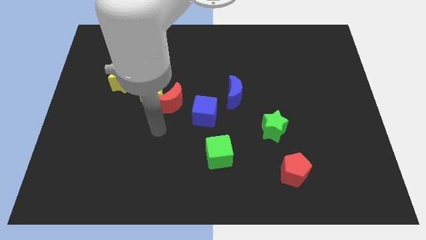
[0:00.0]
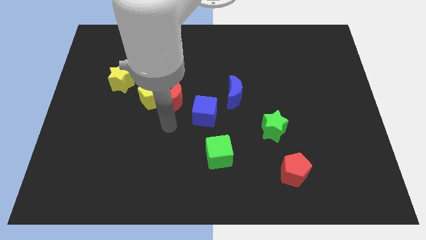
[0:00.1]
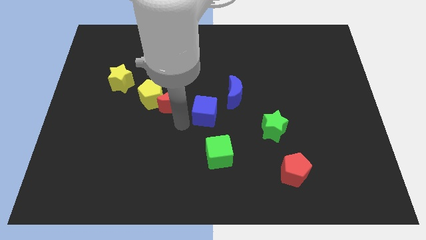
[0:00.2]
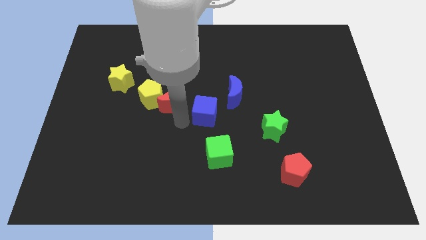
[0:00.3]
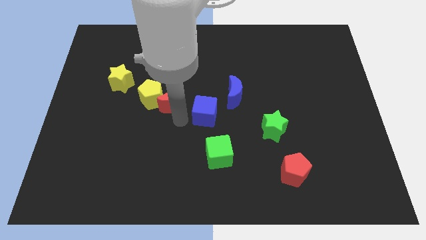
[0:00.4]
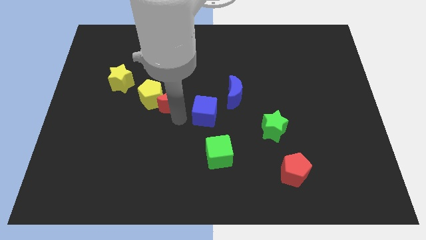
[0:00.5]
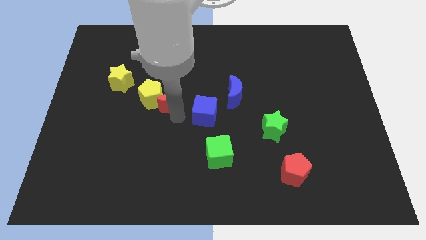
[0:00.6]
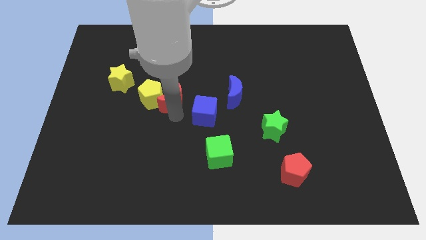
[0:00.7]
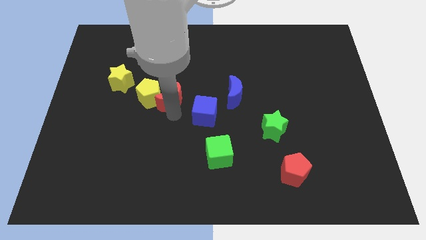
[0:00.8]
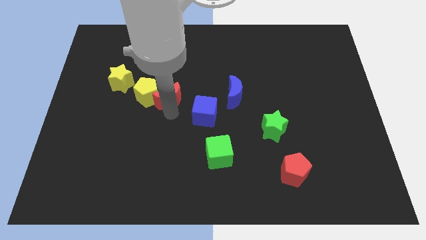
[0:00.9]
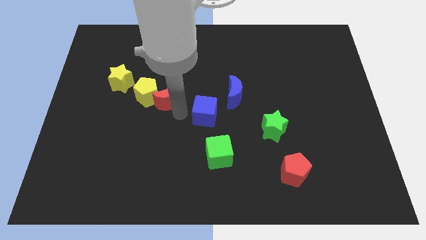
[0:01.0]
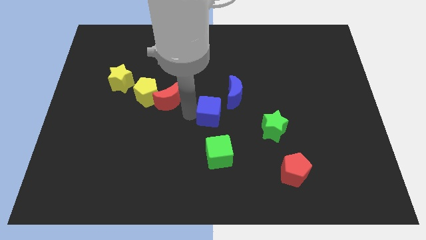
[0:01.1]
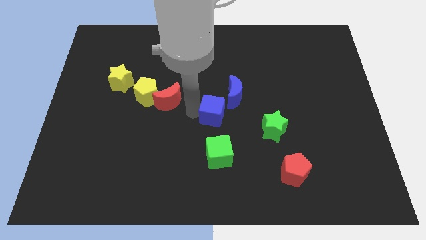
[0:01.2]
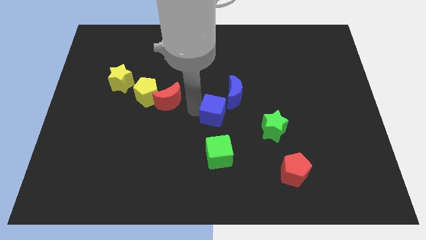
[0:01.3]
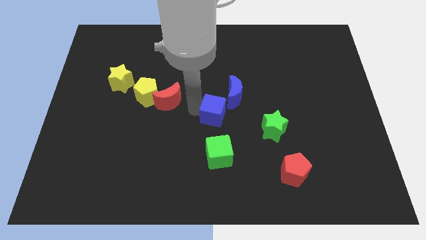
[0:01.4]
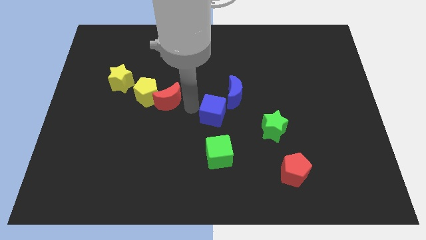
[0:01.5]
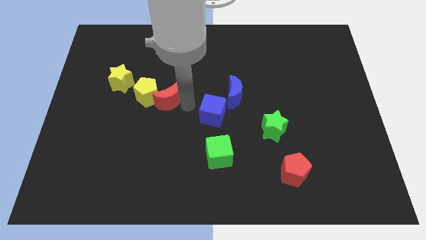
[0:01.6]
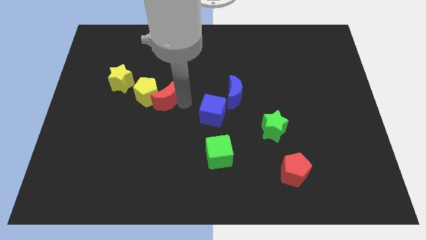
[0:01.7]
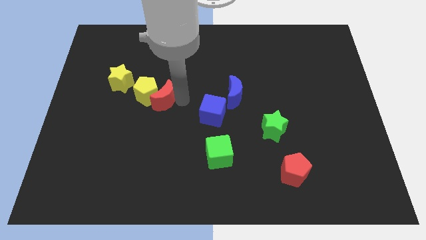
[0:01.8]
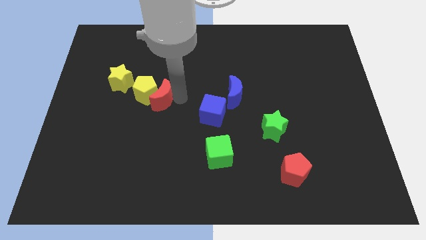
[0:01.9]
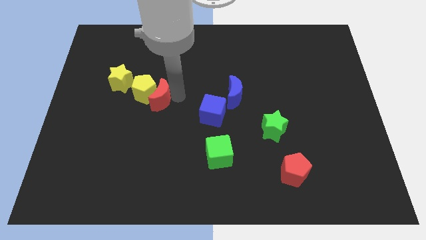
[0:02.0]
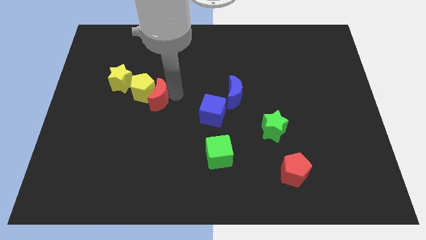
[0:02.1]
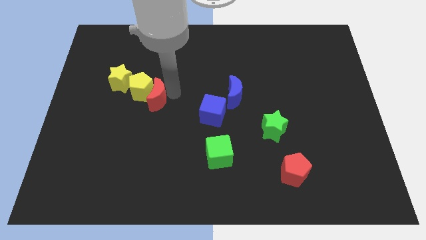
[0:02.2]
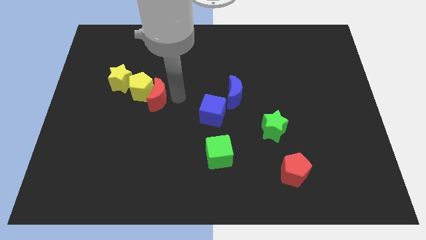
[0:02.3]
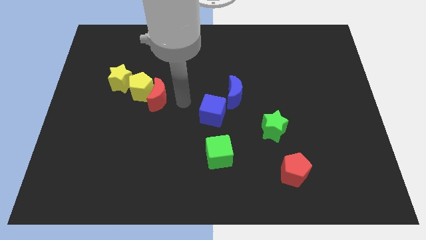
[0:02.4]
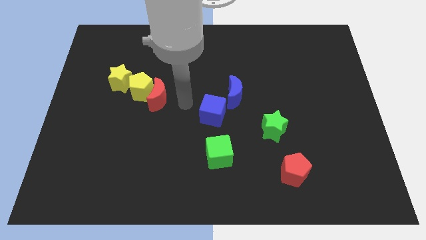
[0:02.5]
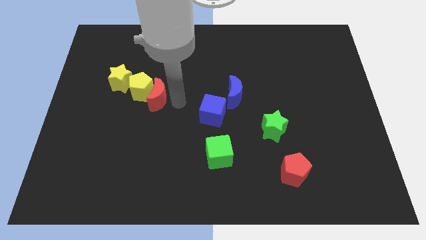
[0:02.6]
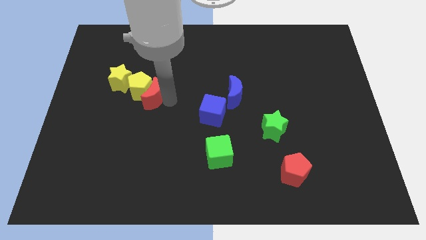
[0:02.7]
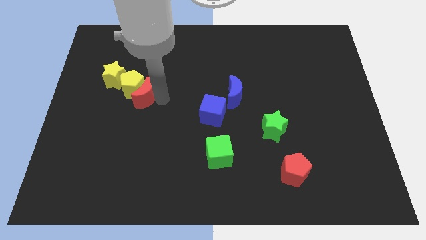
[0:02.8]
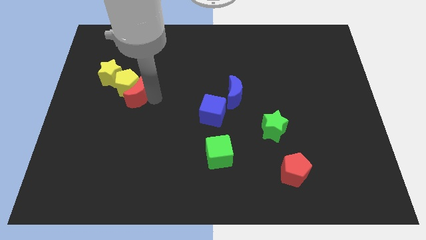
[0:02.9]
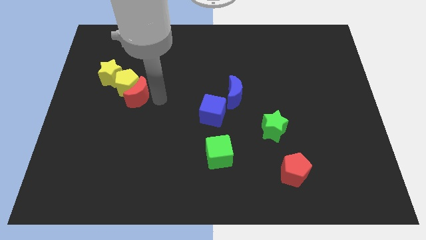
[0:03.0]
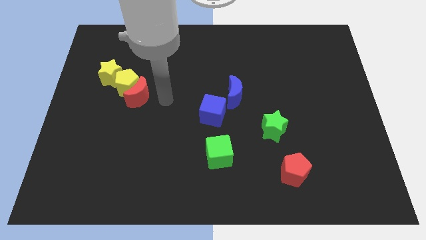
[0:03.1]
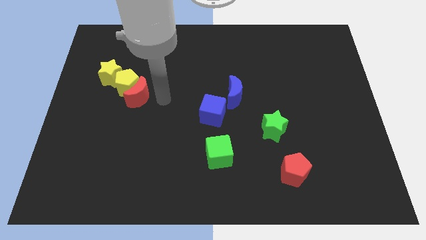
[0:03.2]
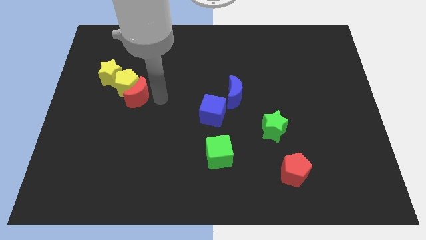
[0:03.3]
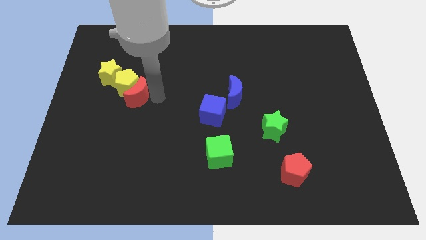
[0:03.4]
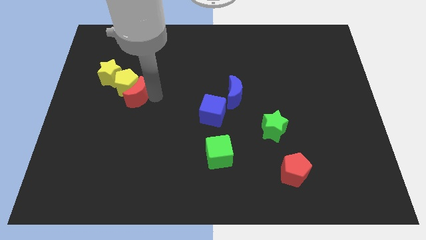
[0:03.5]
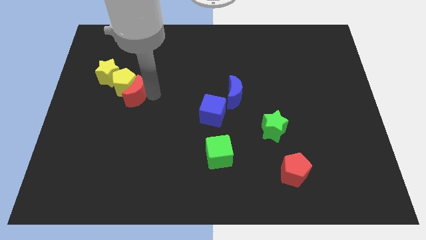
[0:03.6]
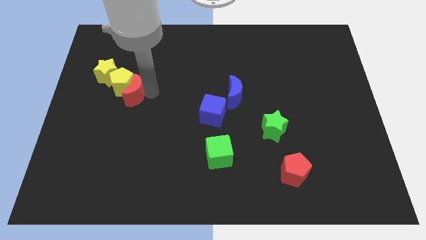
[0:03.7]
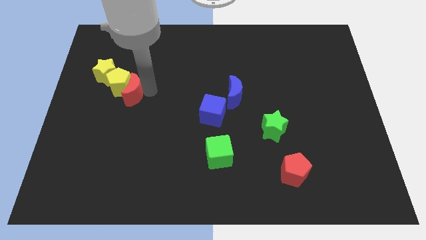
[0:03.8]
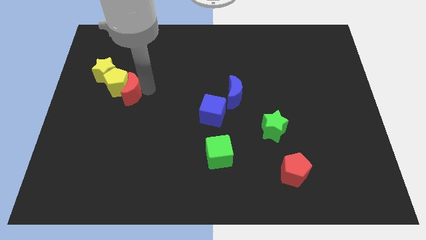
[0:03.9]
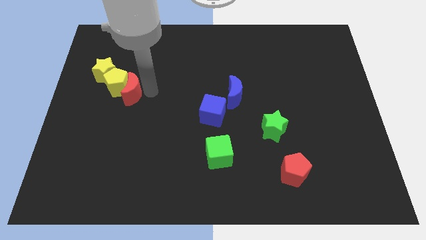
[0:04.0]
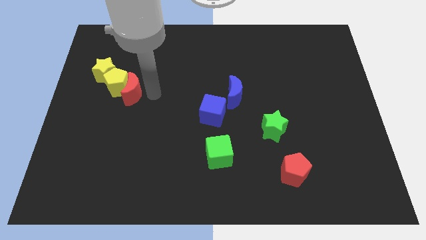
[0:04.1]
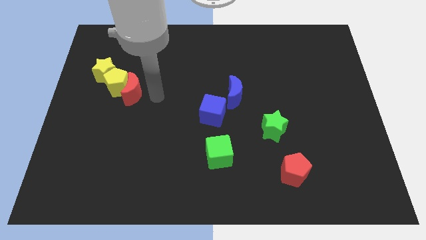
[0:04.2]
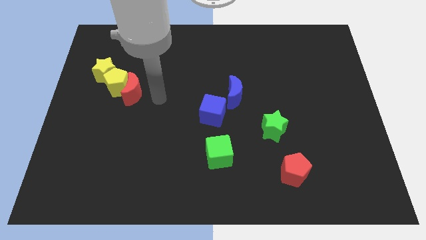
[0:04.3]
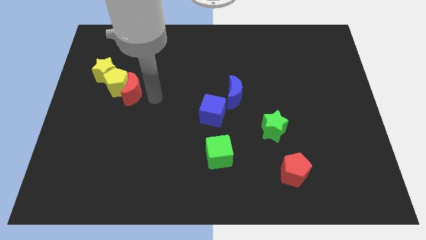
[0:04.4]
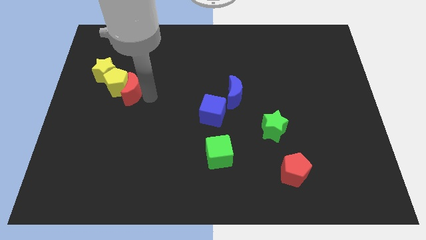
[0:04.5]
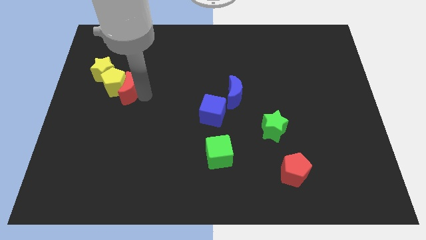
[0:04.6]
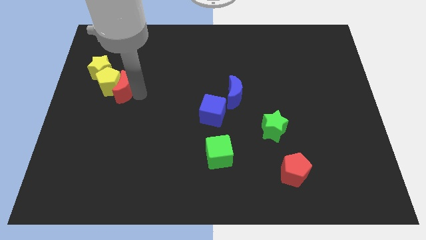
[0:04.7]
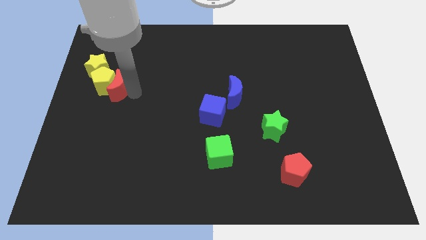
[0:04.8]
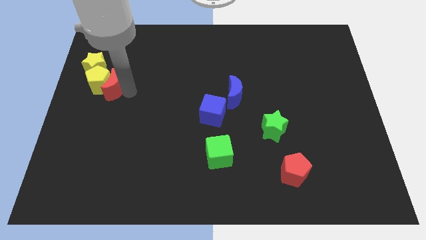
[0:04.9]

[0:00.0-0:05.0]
move the red moon away from the yellow pentagon and blue cube

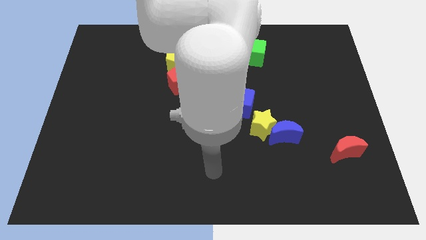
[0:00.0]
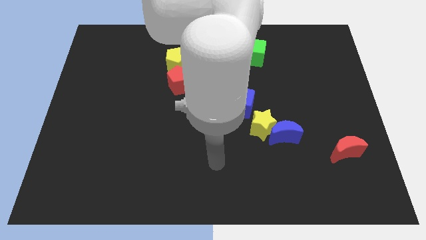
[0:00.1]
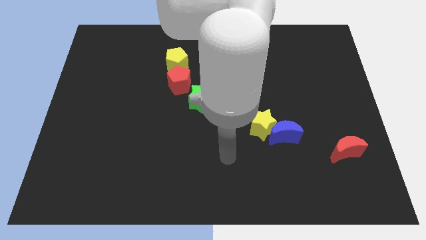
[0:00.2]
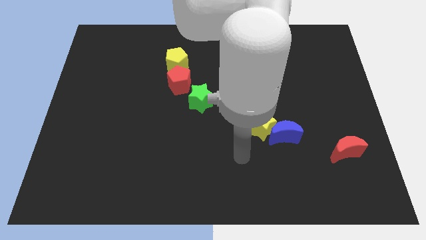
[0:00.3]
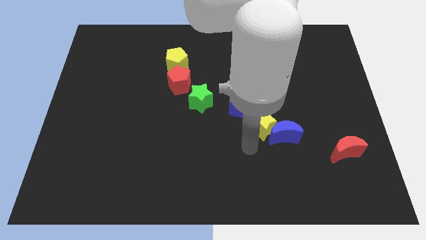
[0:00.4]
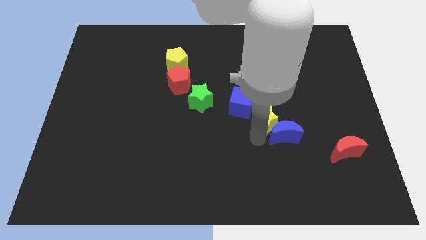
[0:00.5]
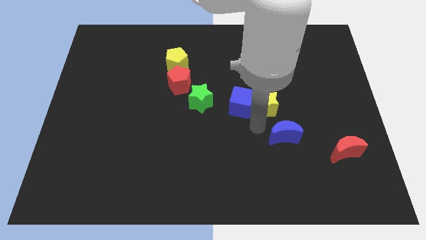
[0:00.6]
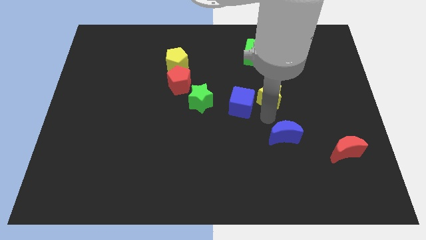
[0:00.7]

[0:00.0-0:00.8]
pull the blue moon apart from the yellow star

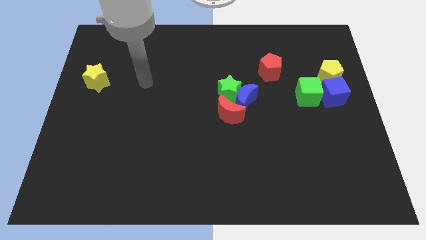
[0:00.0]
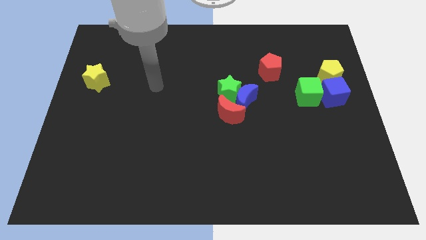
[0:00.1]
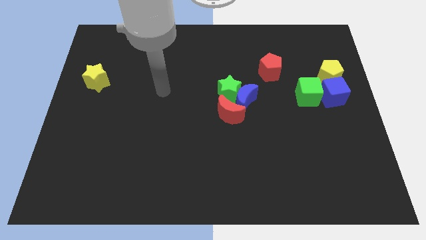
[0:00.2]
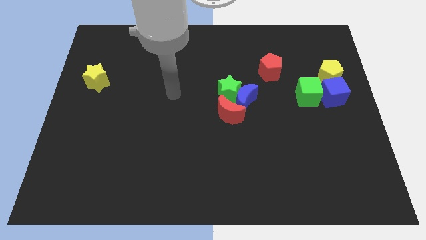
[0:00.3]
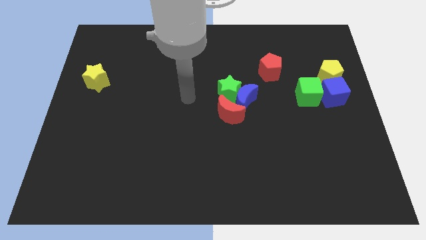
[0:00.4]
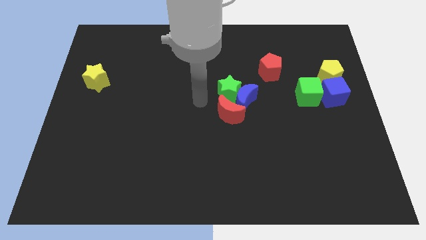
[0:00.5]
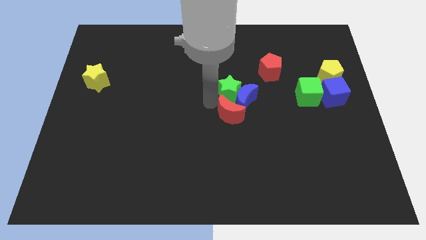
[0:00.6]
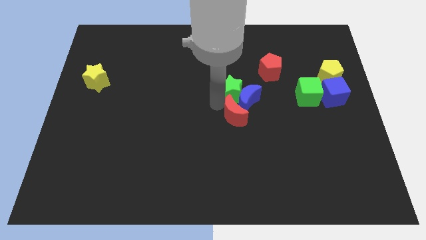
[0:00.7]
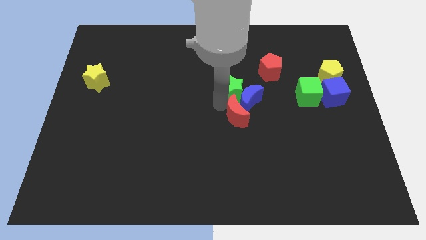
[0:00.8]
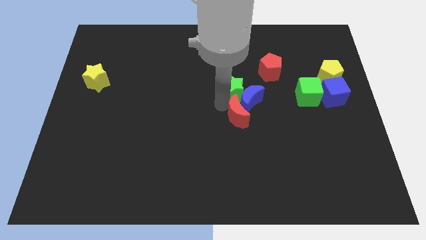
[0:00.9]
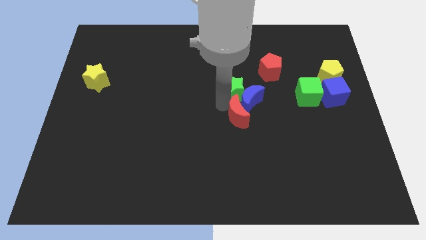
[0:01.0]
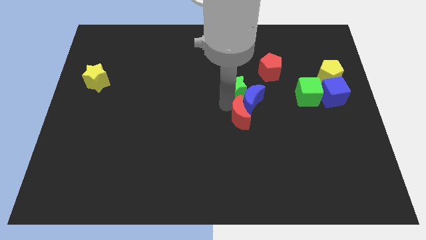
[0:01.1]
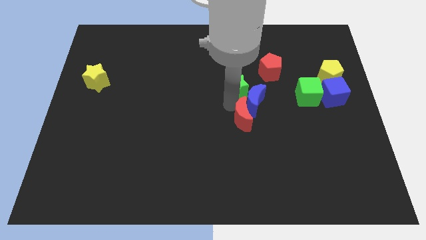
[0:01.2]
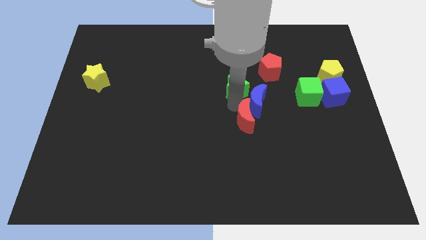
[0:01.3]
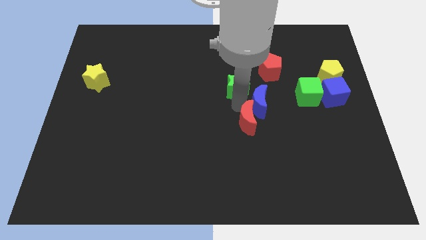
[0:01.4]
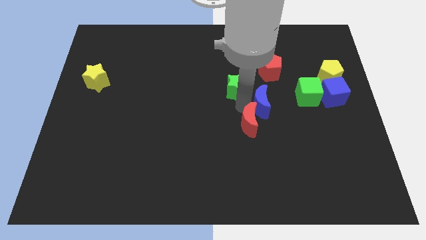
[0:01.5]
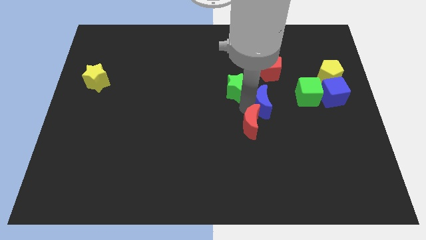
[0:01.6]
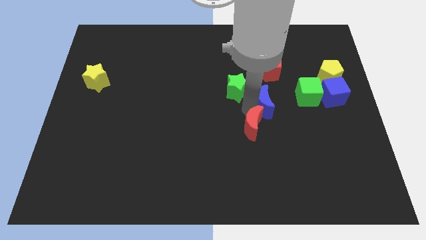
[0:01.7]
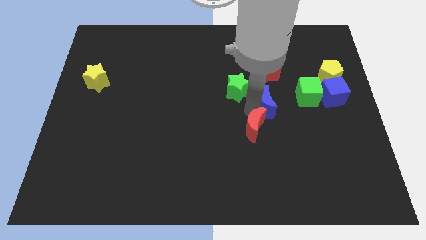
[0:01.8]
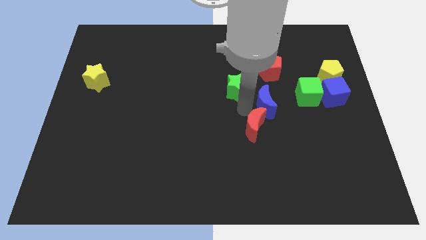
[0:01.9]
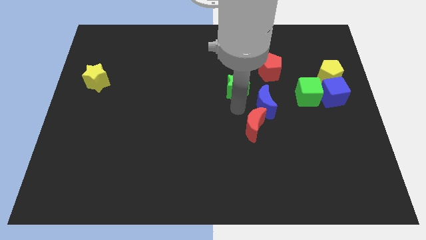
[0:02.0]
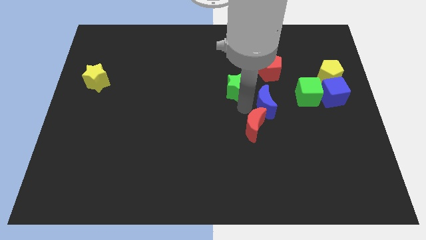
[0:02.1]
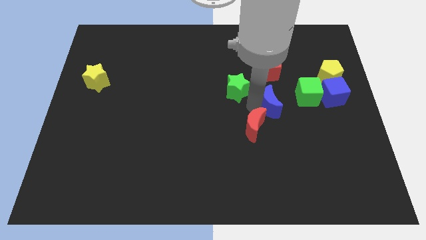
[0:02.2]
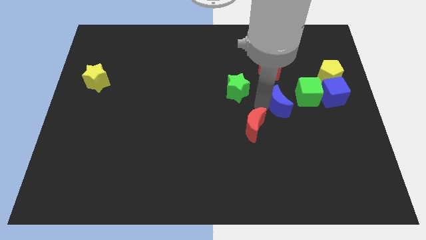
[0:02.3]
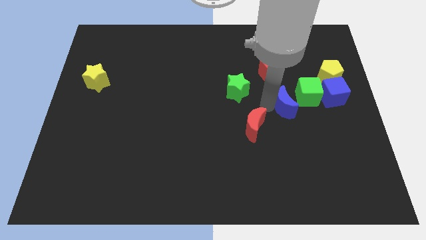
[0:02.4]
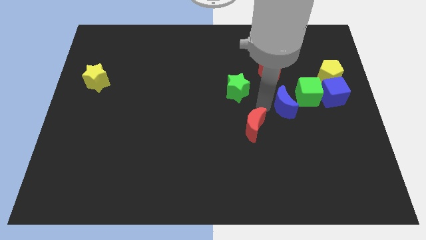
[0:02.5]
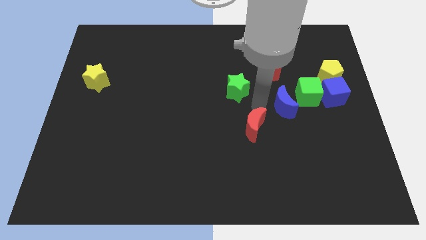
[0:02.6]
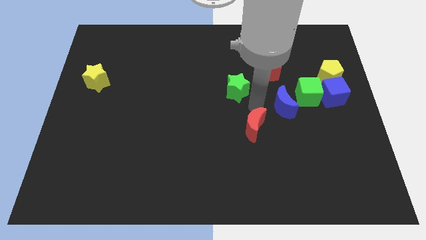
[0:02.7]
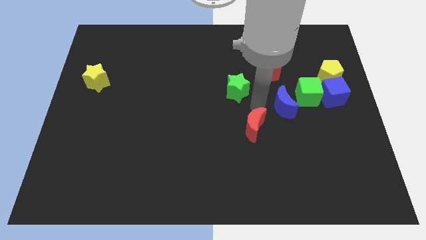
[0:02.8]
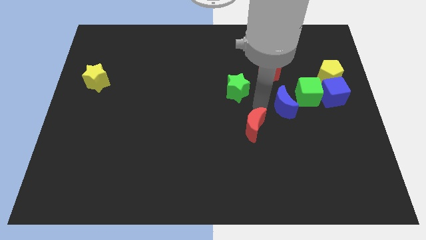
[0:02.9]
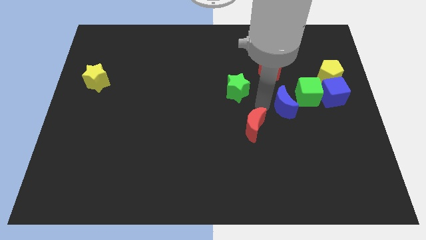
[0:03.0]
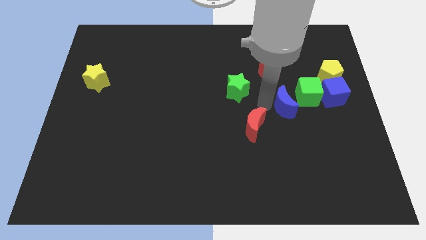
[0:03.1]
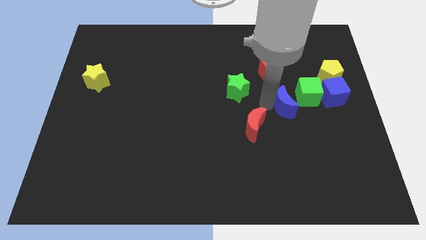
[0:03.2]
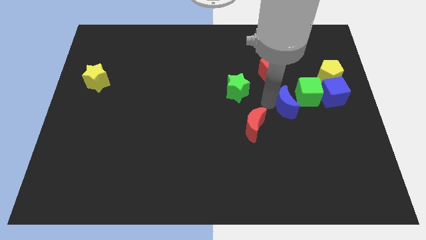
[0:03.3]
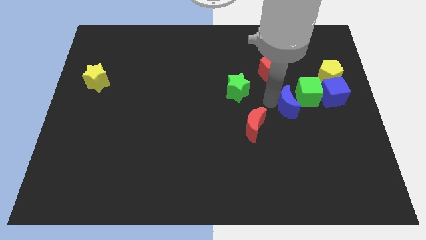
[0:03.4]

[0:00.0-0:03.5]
separate the blue moon from the green star and red moon

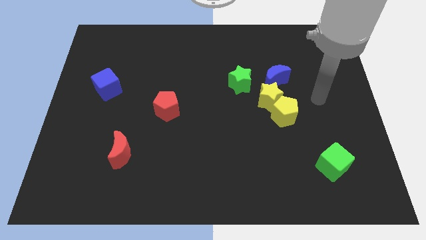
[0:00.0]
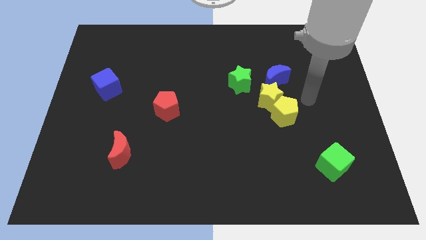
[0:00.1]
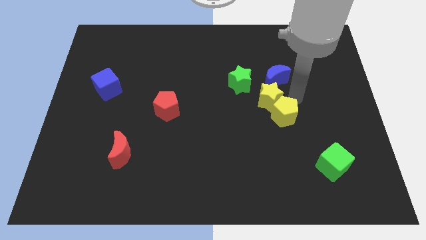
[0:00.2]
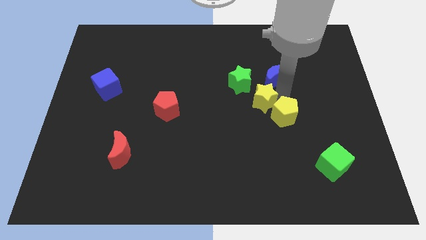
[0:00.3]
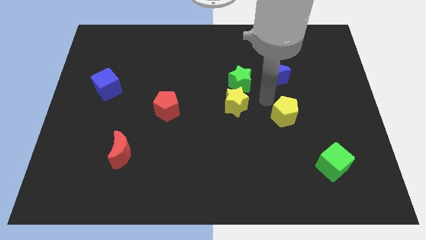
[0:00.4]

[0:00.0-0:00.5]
move the yellow pentagon away from the yellow star
